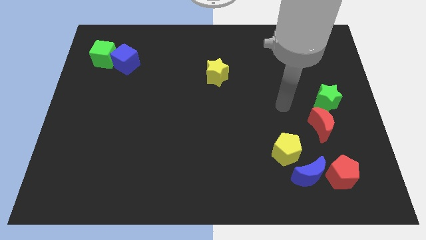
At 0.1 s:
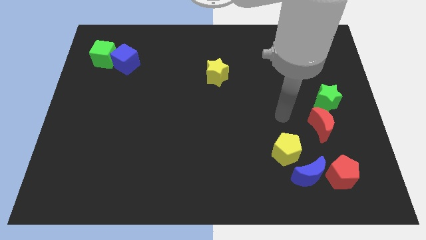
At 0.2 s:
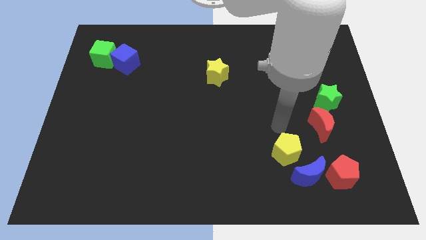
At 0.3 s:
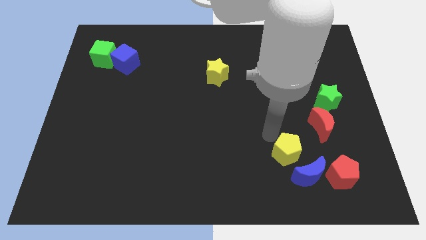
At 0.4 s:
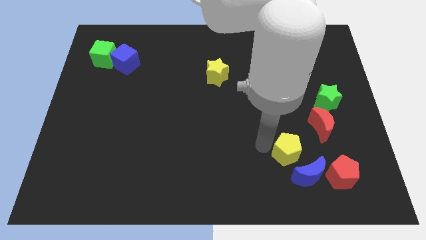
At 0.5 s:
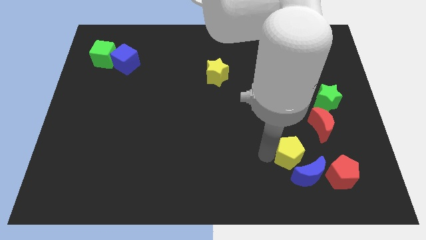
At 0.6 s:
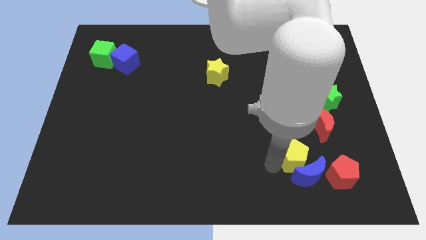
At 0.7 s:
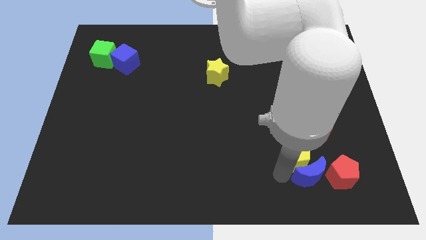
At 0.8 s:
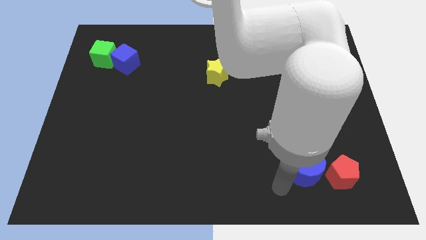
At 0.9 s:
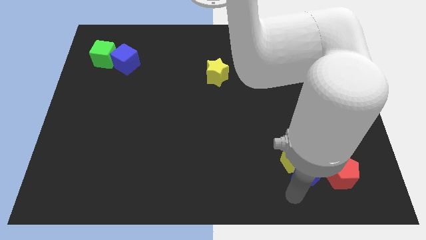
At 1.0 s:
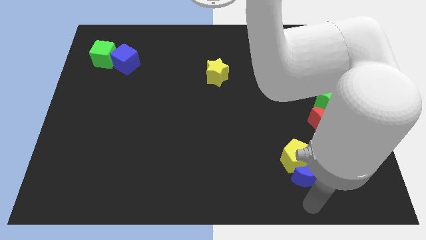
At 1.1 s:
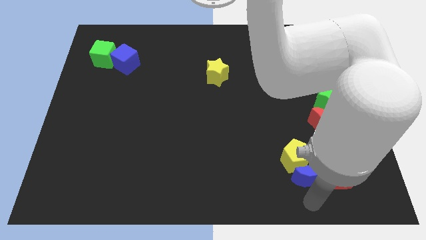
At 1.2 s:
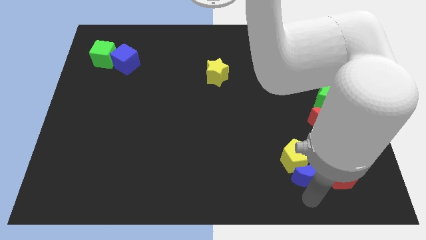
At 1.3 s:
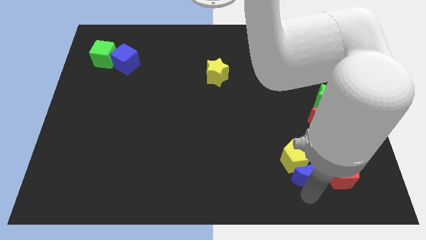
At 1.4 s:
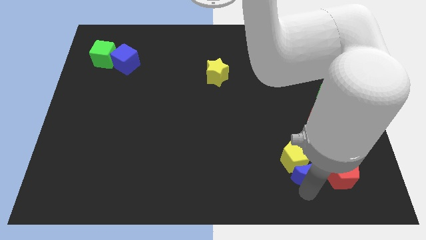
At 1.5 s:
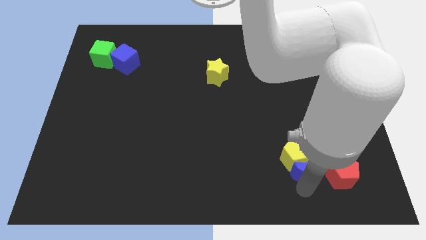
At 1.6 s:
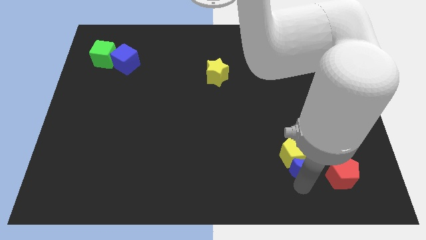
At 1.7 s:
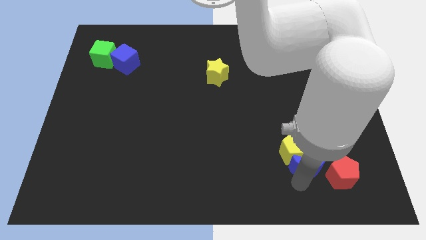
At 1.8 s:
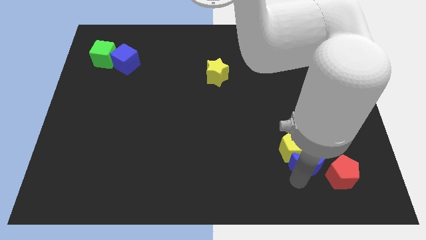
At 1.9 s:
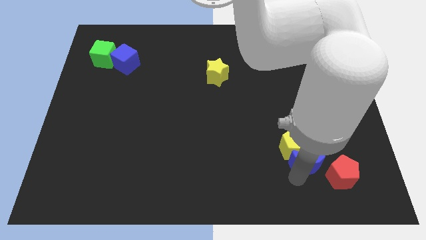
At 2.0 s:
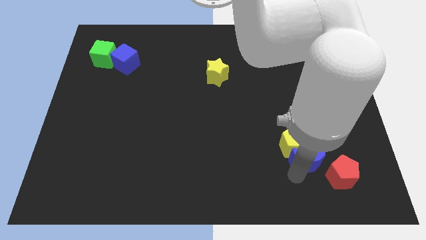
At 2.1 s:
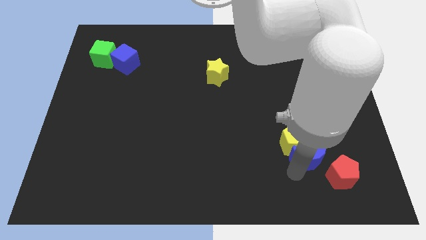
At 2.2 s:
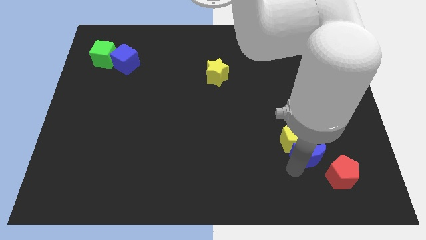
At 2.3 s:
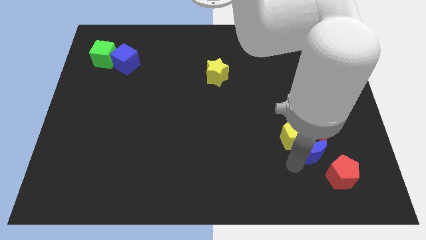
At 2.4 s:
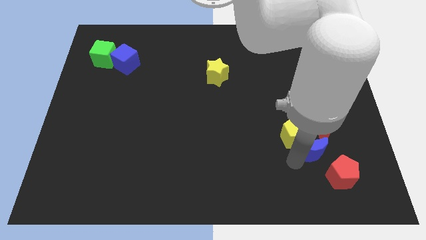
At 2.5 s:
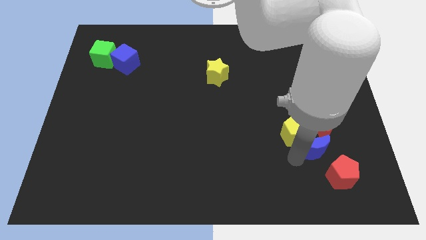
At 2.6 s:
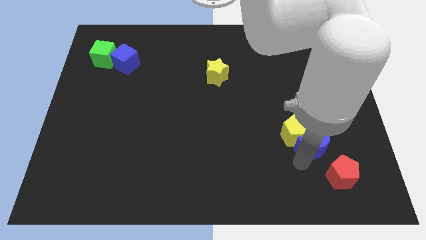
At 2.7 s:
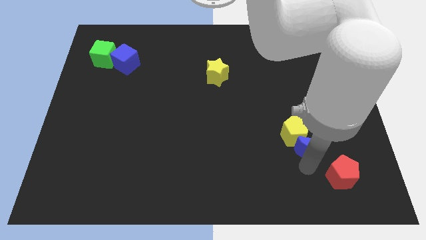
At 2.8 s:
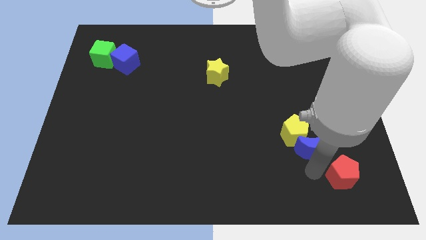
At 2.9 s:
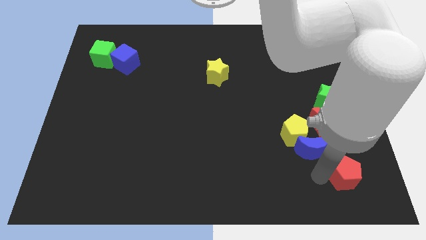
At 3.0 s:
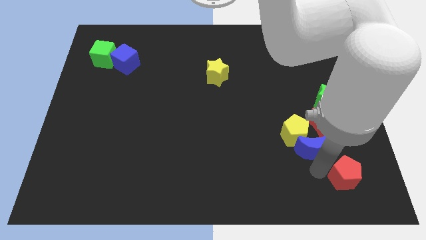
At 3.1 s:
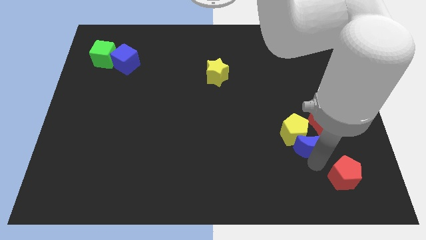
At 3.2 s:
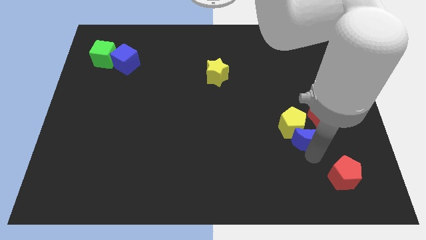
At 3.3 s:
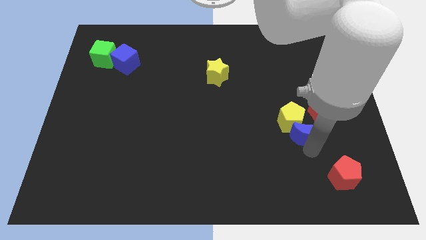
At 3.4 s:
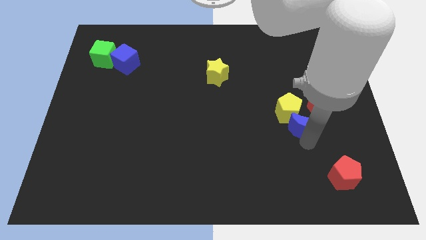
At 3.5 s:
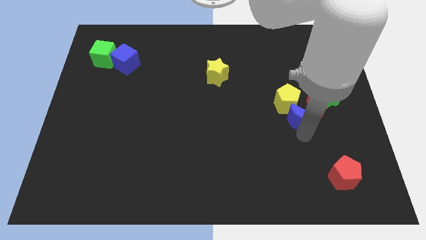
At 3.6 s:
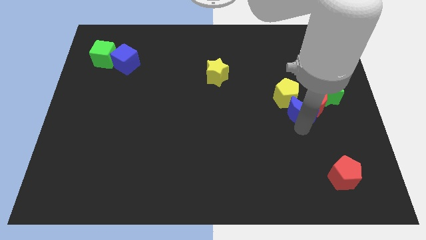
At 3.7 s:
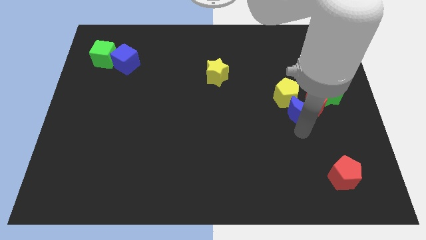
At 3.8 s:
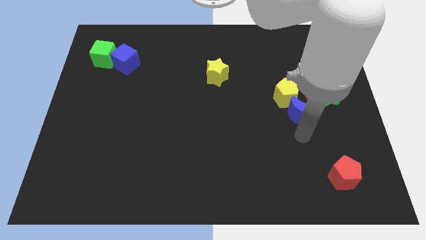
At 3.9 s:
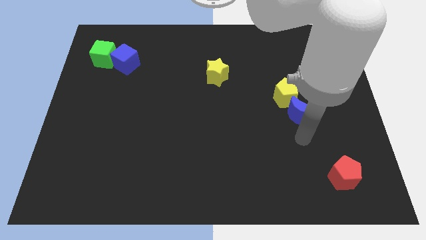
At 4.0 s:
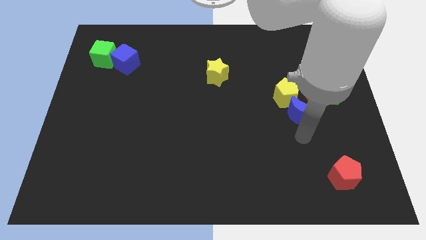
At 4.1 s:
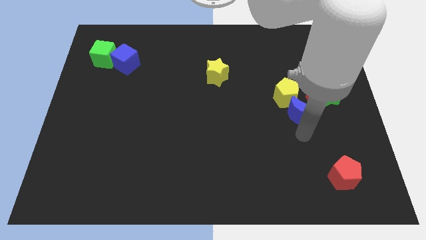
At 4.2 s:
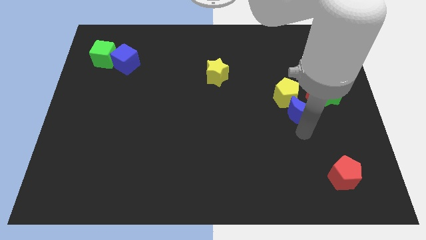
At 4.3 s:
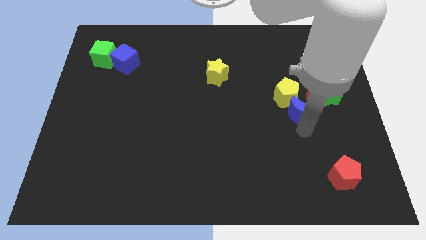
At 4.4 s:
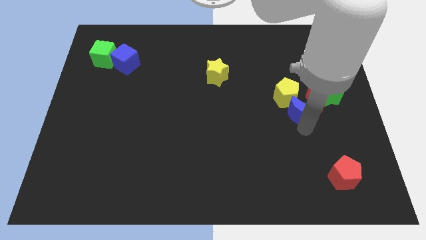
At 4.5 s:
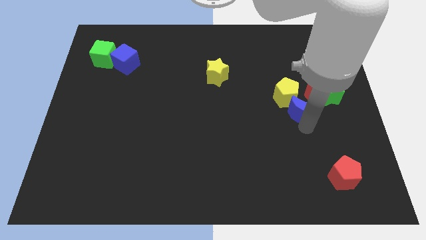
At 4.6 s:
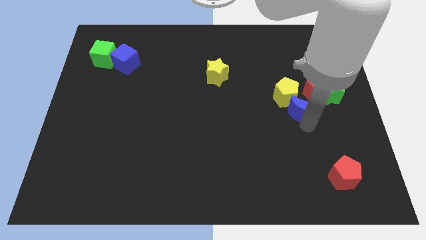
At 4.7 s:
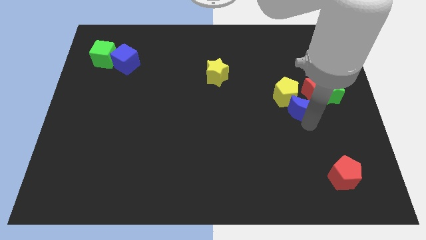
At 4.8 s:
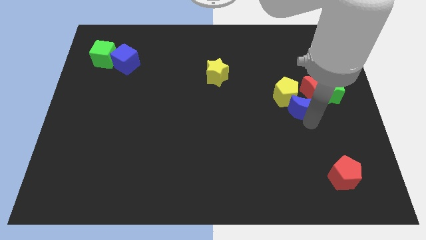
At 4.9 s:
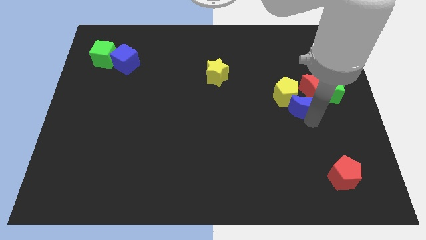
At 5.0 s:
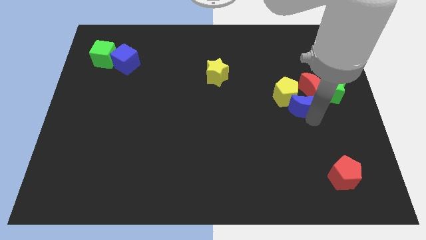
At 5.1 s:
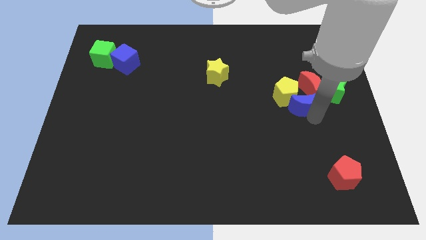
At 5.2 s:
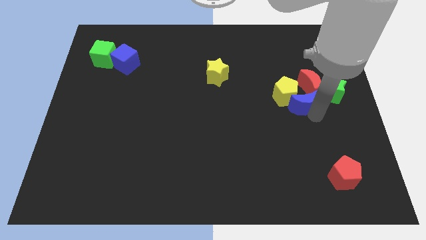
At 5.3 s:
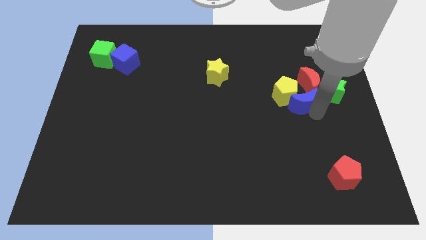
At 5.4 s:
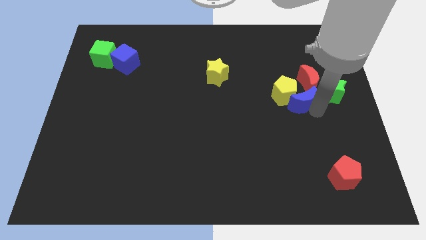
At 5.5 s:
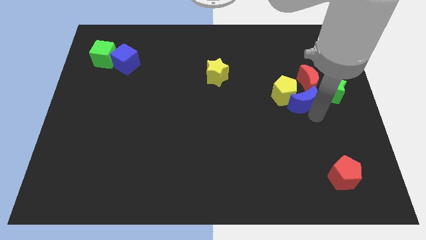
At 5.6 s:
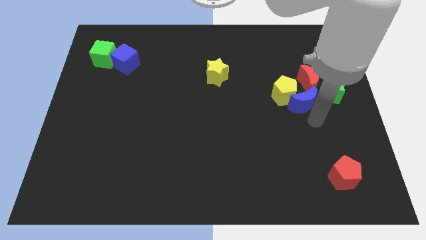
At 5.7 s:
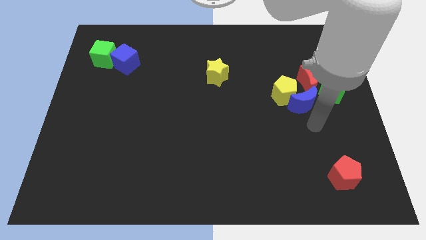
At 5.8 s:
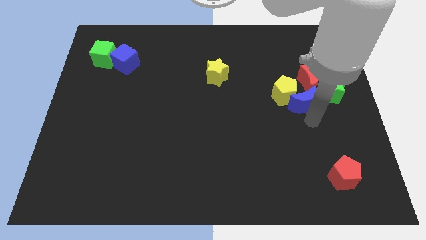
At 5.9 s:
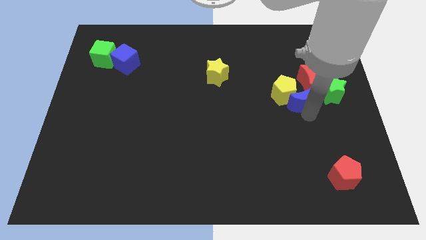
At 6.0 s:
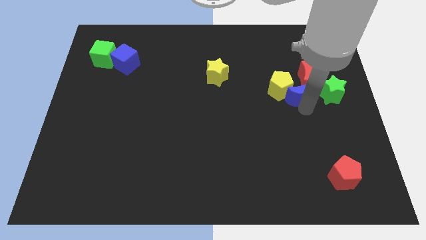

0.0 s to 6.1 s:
push the blue moon upwards

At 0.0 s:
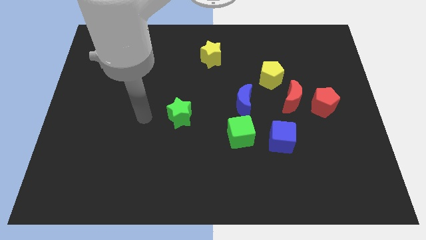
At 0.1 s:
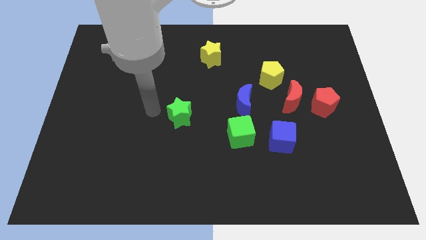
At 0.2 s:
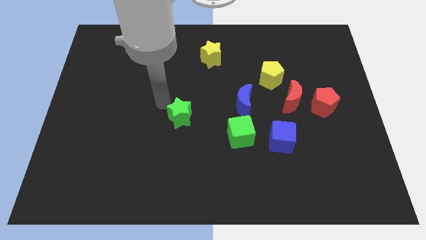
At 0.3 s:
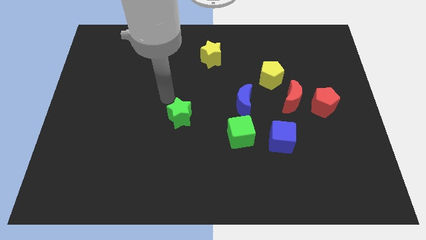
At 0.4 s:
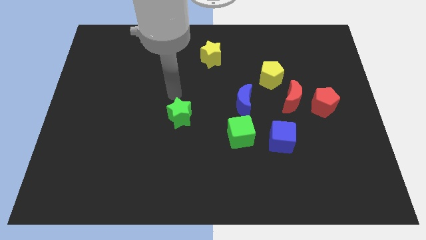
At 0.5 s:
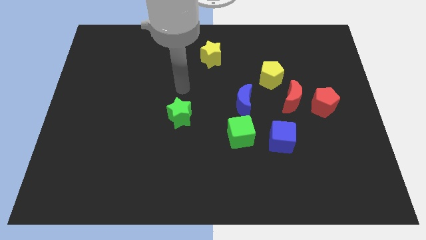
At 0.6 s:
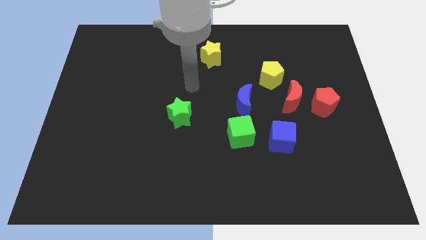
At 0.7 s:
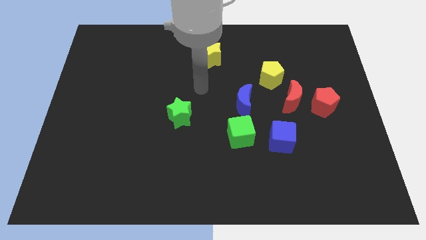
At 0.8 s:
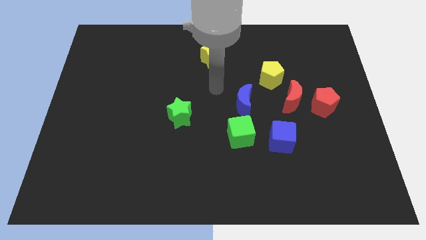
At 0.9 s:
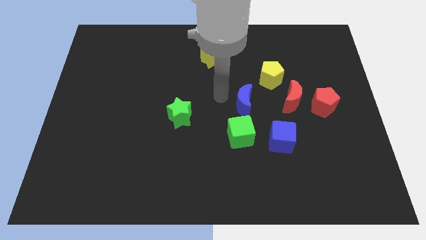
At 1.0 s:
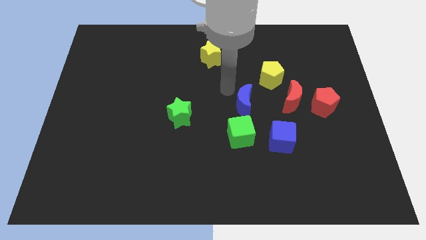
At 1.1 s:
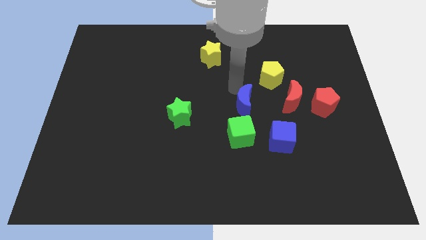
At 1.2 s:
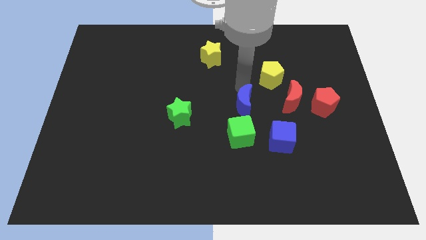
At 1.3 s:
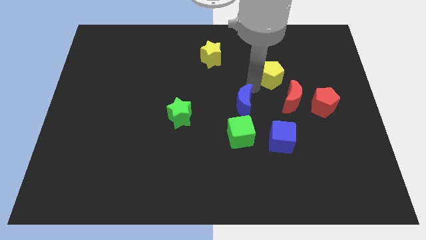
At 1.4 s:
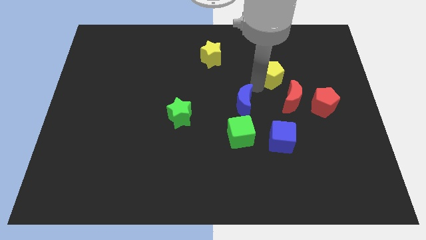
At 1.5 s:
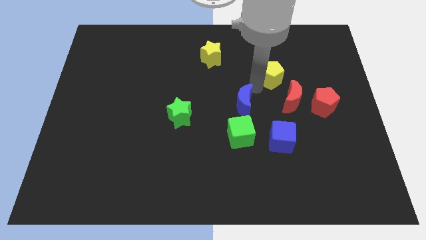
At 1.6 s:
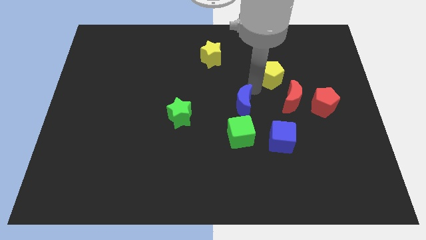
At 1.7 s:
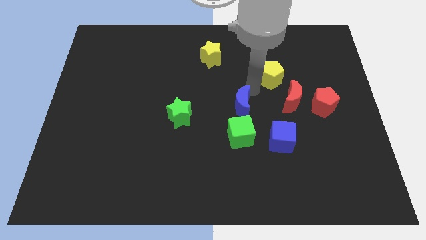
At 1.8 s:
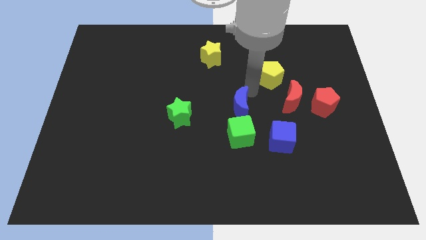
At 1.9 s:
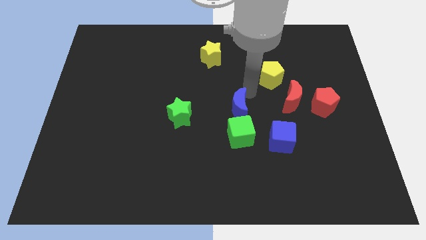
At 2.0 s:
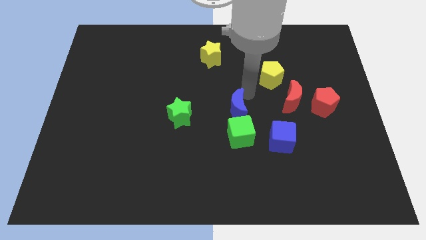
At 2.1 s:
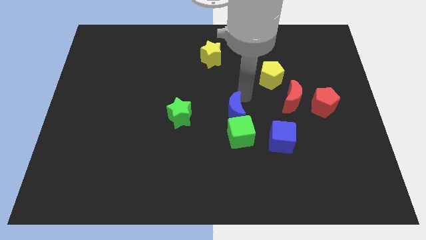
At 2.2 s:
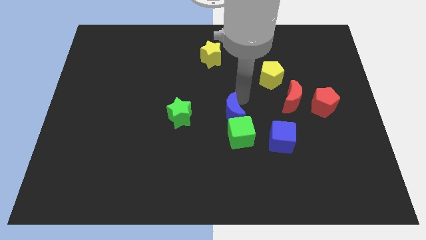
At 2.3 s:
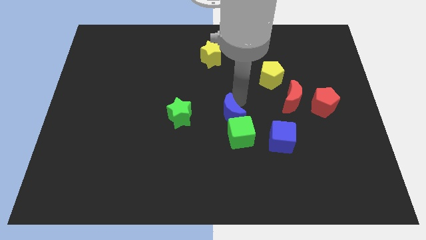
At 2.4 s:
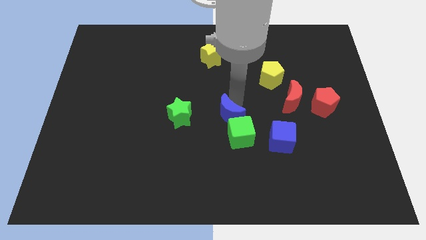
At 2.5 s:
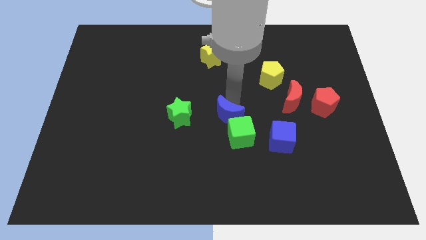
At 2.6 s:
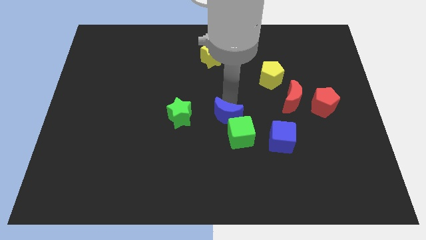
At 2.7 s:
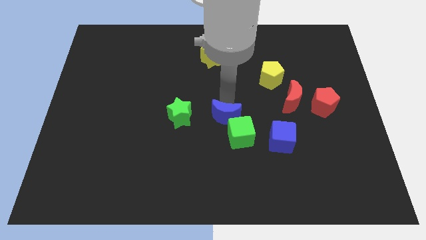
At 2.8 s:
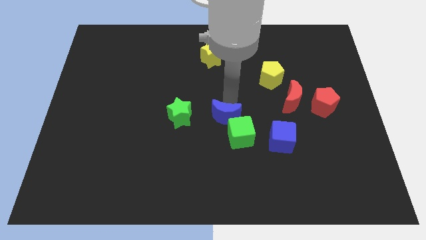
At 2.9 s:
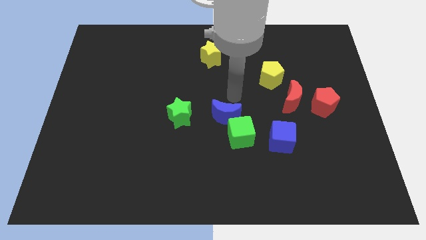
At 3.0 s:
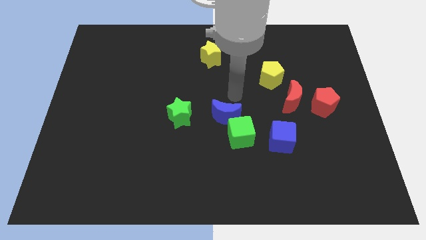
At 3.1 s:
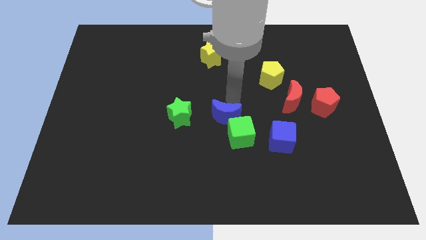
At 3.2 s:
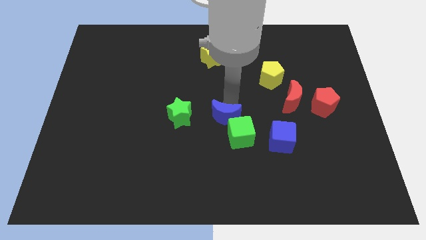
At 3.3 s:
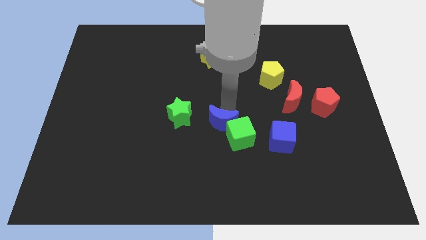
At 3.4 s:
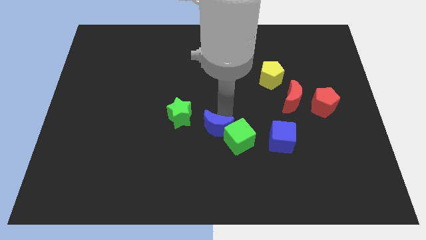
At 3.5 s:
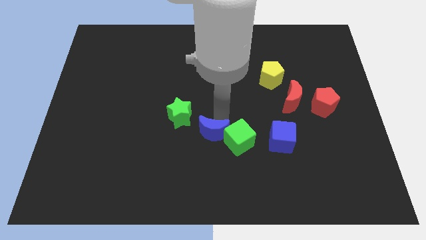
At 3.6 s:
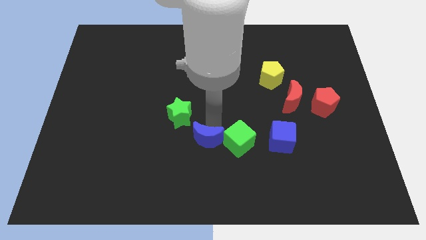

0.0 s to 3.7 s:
slightly slide the blue moon downwards
